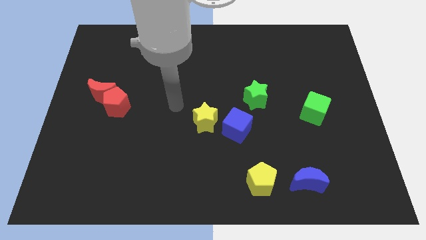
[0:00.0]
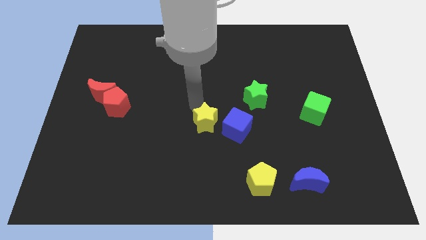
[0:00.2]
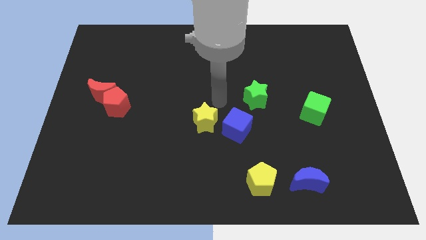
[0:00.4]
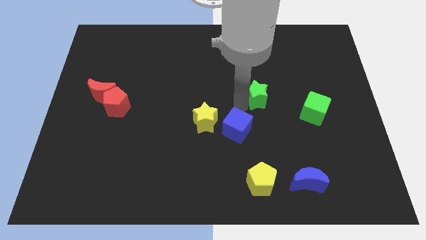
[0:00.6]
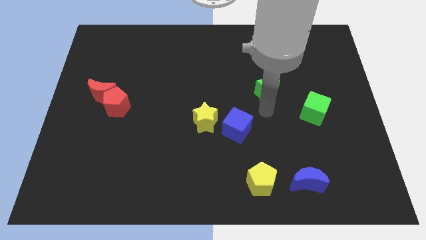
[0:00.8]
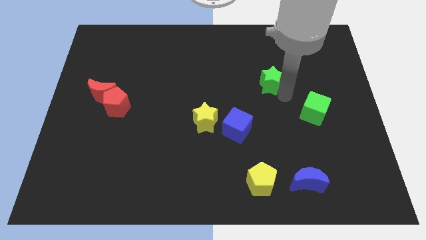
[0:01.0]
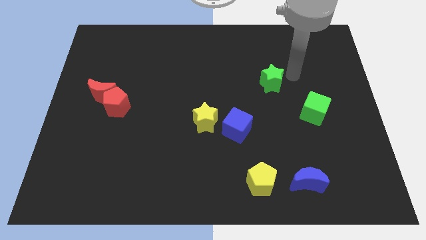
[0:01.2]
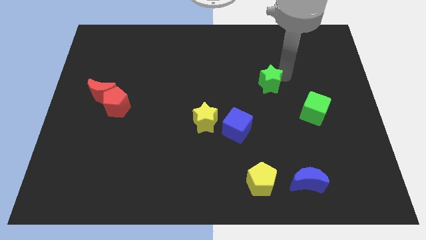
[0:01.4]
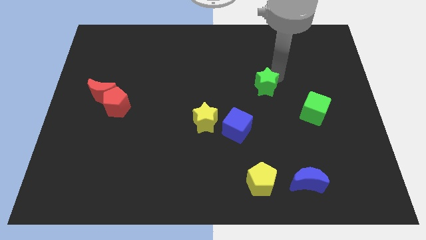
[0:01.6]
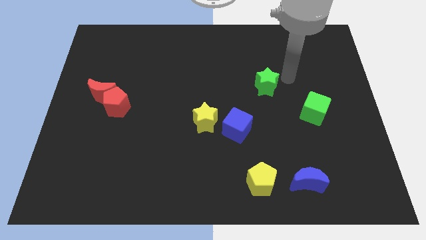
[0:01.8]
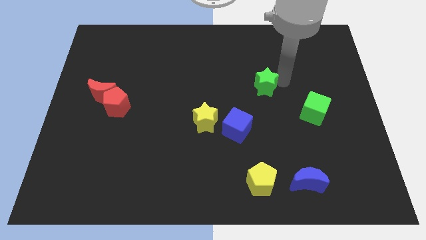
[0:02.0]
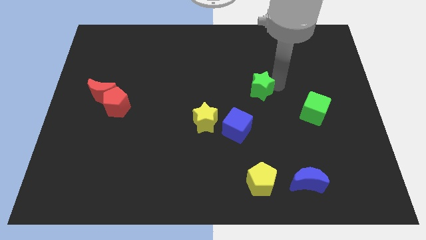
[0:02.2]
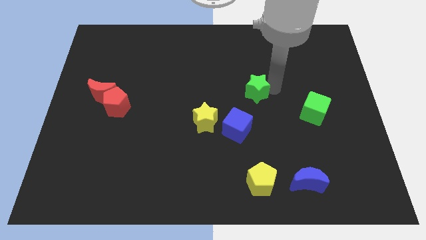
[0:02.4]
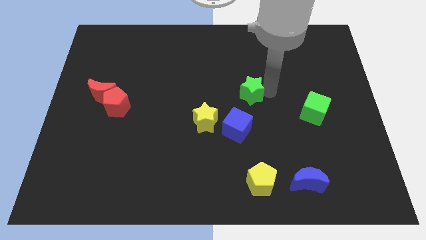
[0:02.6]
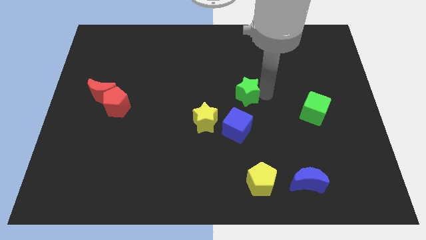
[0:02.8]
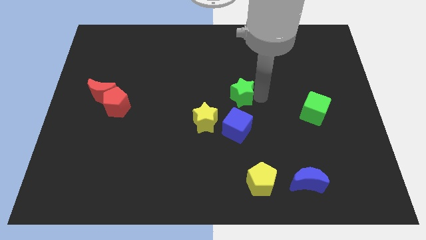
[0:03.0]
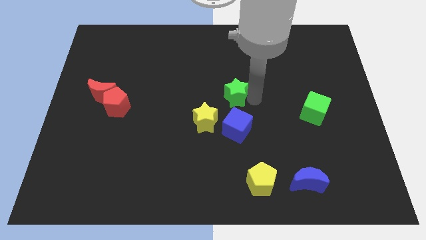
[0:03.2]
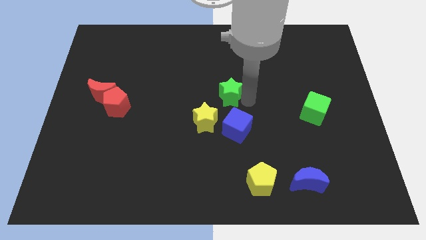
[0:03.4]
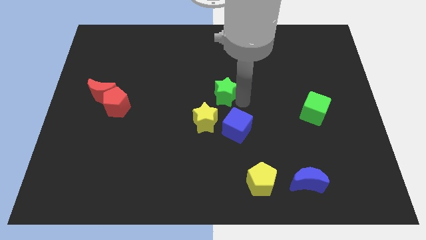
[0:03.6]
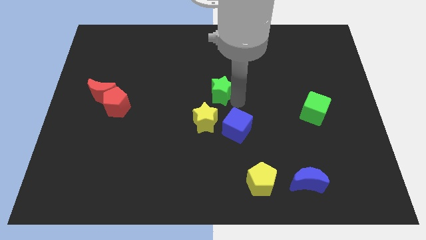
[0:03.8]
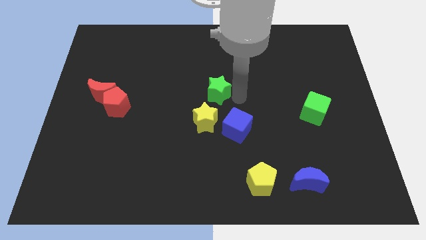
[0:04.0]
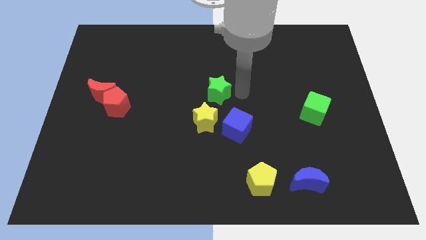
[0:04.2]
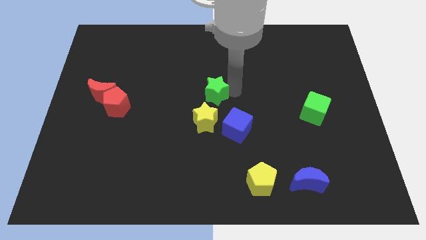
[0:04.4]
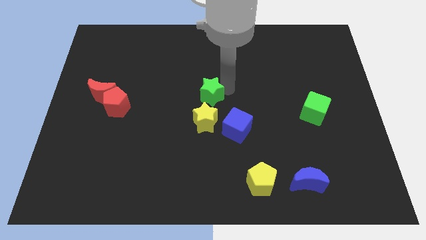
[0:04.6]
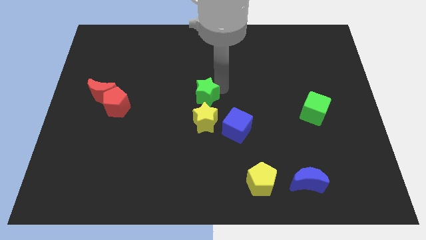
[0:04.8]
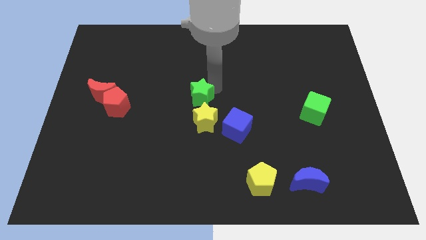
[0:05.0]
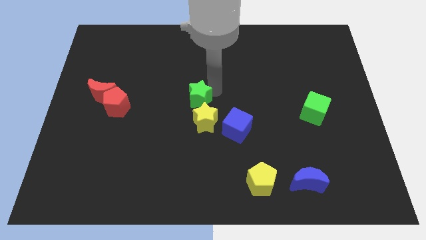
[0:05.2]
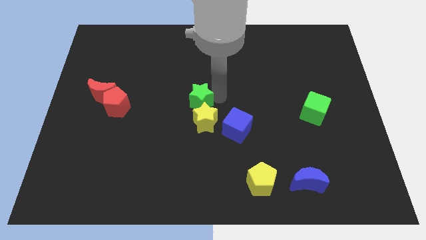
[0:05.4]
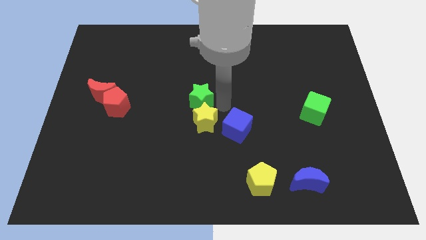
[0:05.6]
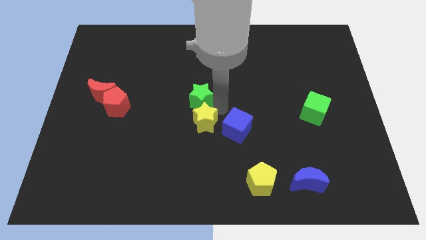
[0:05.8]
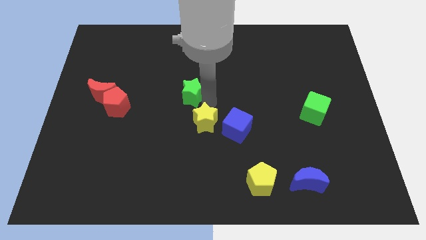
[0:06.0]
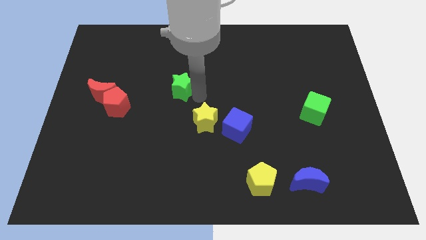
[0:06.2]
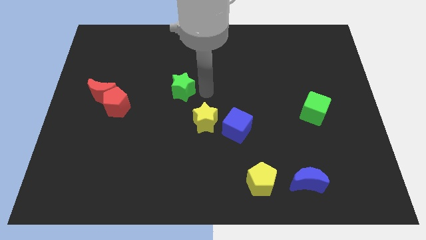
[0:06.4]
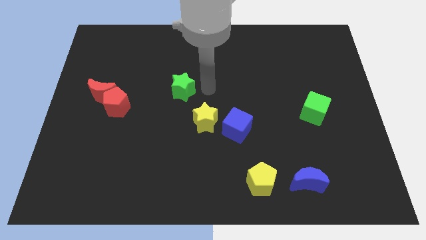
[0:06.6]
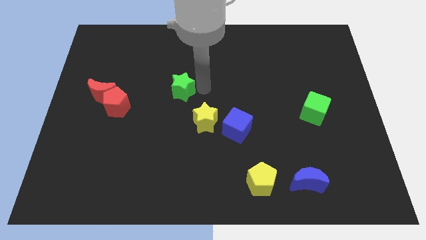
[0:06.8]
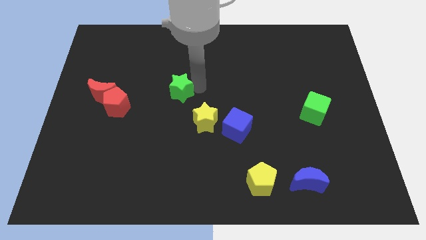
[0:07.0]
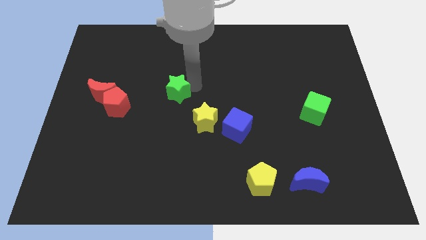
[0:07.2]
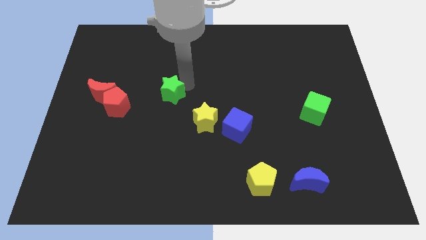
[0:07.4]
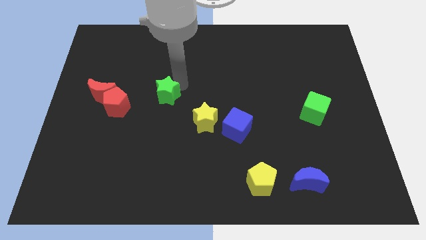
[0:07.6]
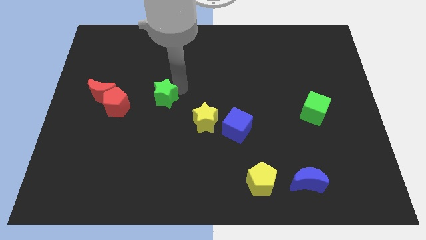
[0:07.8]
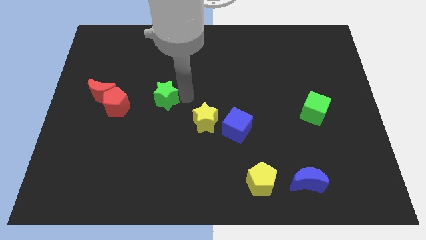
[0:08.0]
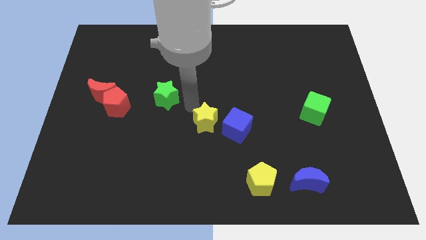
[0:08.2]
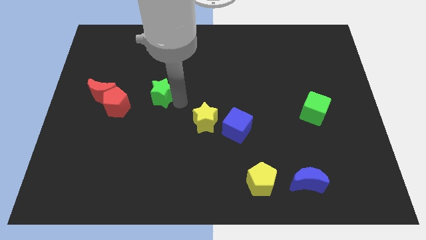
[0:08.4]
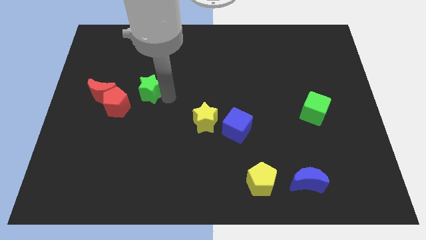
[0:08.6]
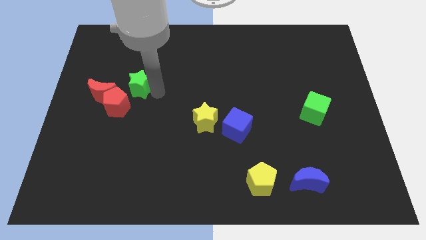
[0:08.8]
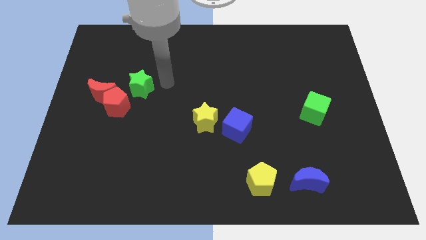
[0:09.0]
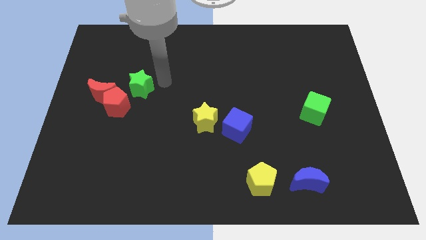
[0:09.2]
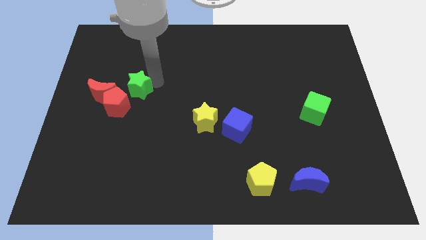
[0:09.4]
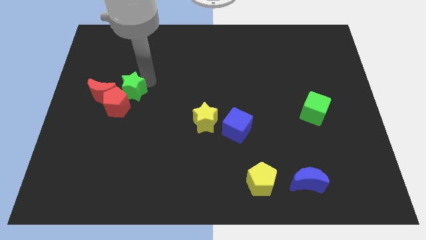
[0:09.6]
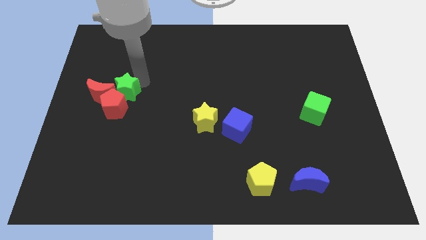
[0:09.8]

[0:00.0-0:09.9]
put the green star close to the red moon

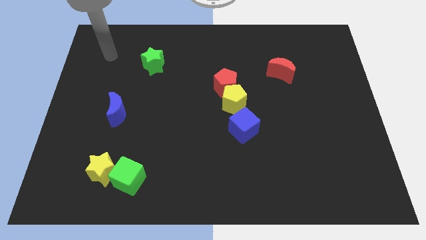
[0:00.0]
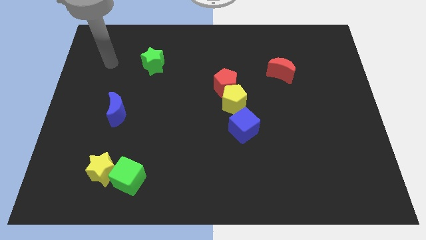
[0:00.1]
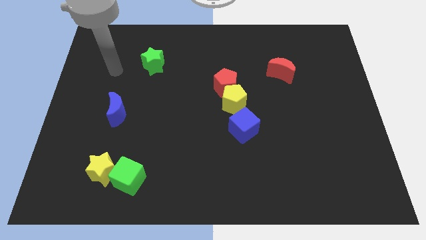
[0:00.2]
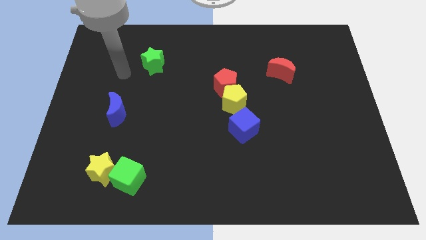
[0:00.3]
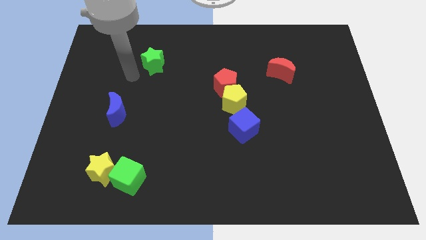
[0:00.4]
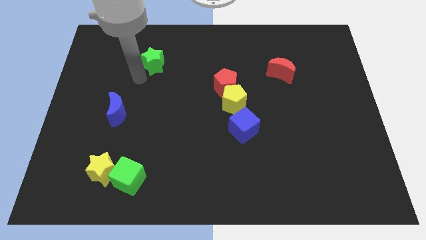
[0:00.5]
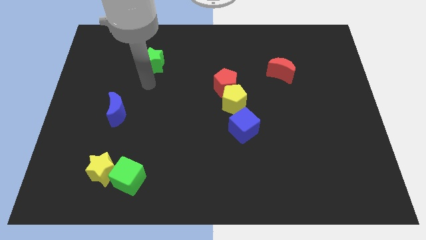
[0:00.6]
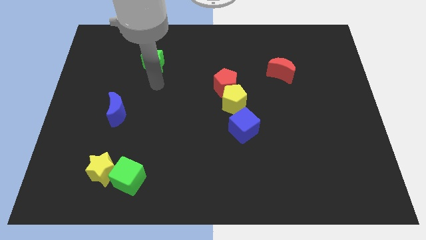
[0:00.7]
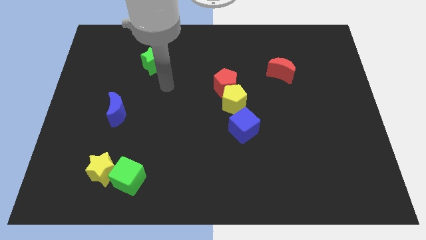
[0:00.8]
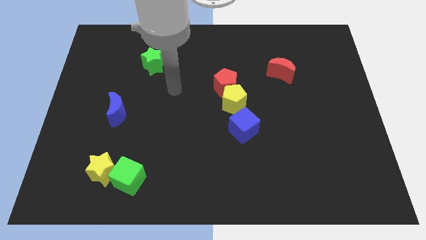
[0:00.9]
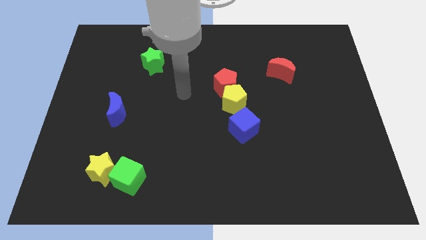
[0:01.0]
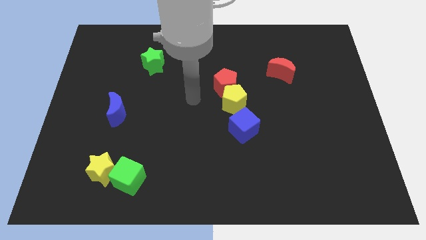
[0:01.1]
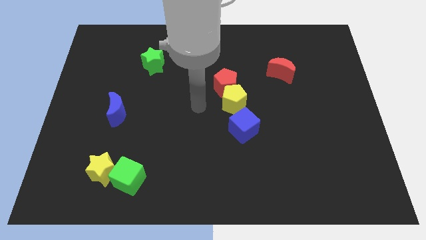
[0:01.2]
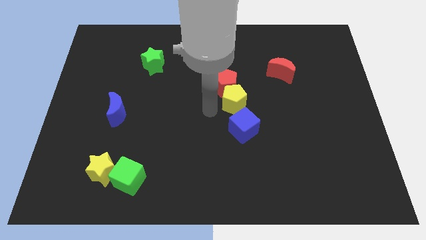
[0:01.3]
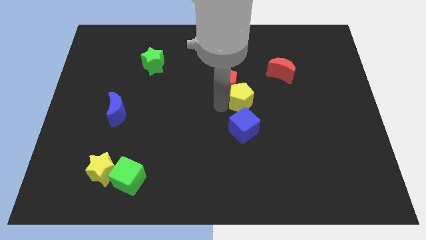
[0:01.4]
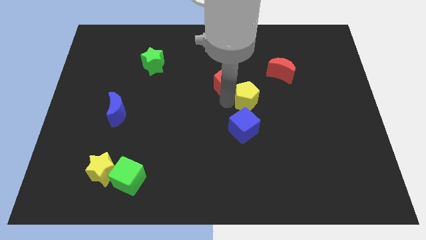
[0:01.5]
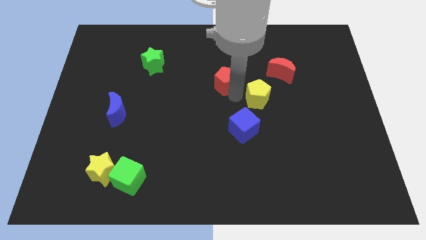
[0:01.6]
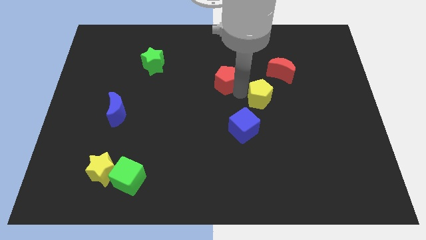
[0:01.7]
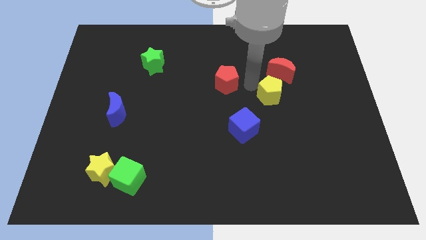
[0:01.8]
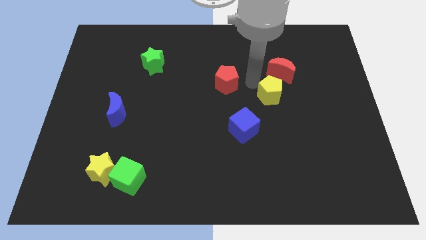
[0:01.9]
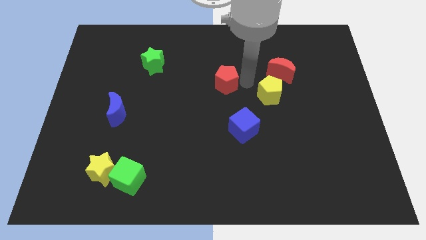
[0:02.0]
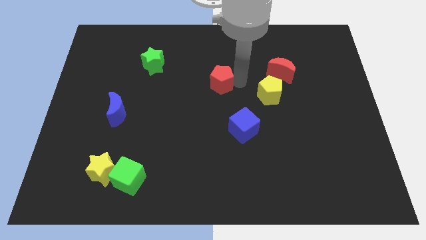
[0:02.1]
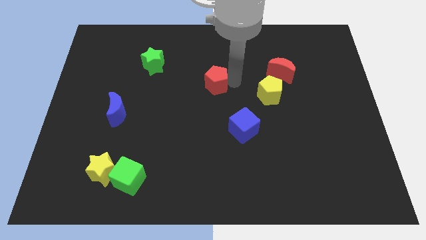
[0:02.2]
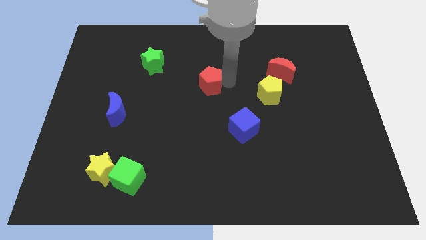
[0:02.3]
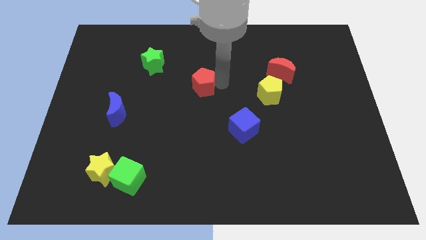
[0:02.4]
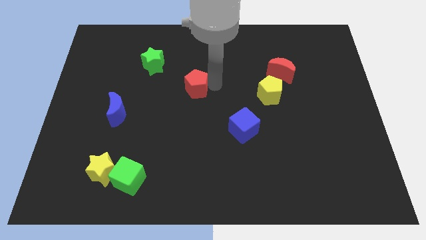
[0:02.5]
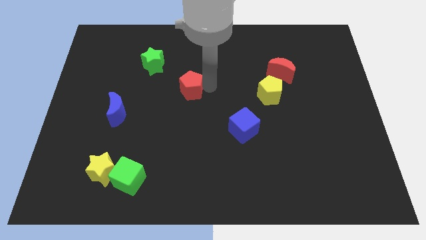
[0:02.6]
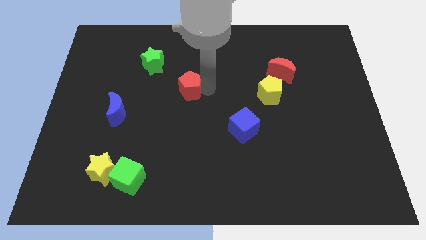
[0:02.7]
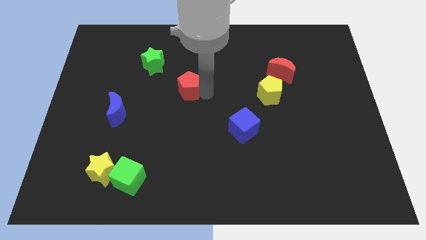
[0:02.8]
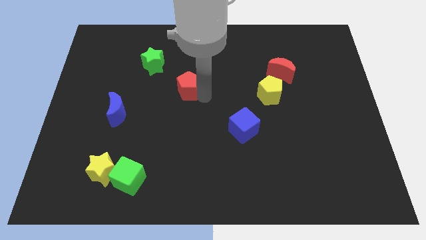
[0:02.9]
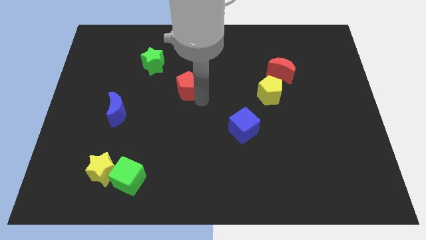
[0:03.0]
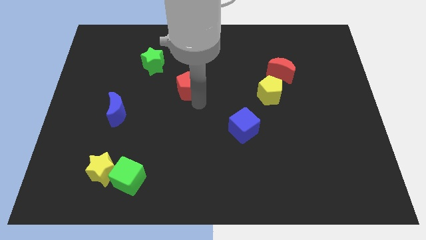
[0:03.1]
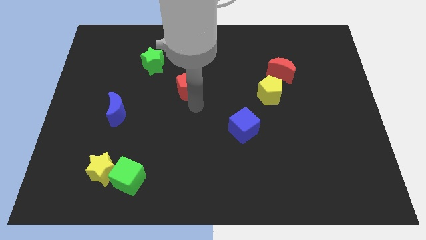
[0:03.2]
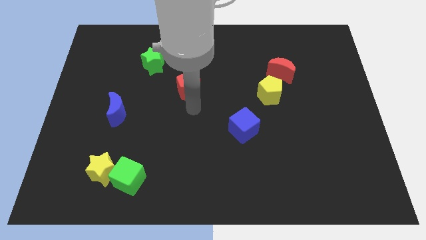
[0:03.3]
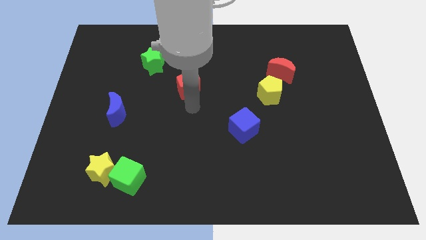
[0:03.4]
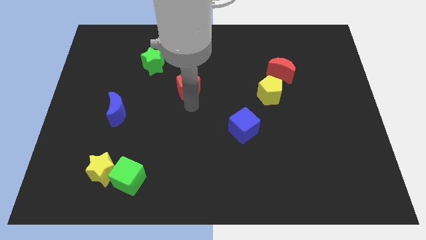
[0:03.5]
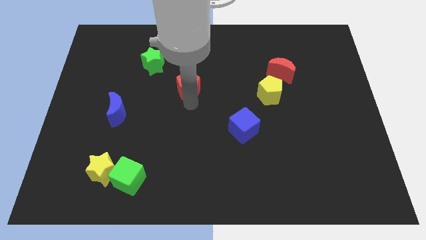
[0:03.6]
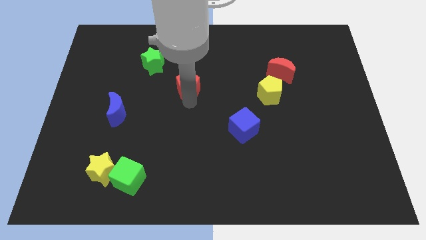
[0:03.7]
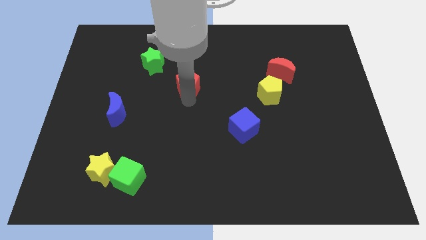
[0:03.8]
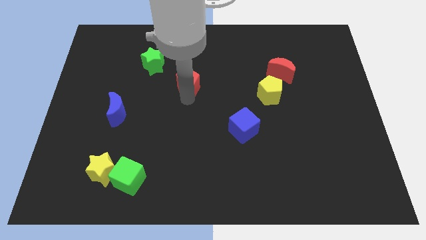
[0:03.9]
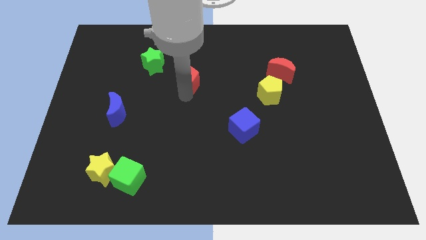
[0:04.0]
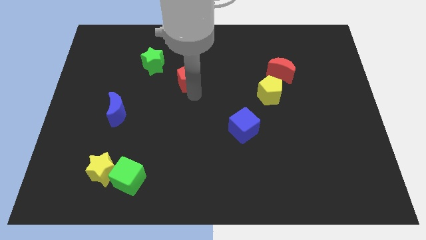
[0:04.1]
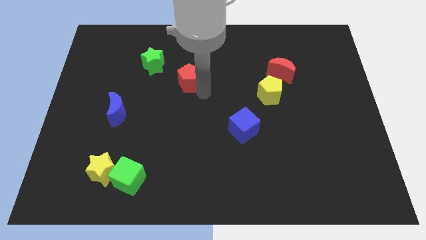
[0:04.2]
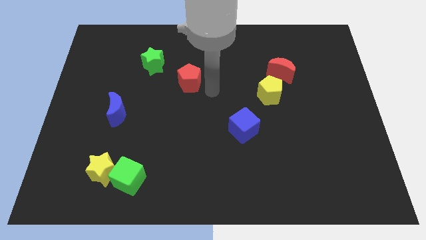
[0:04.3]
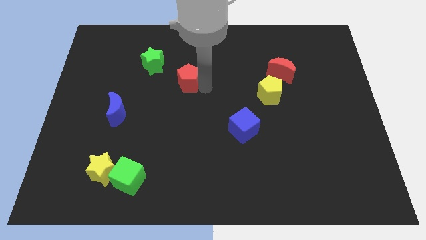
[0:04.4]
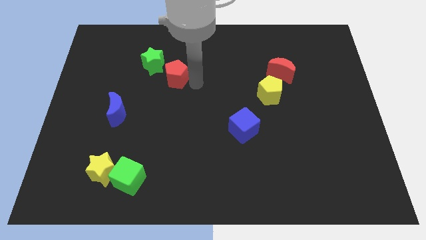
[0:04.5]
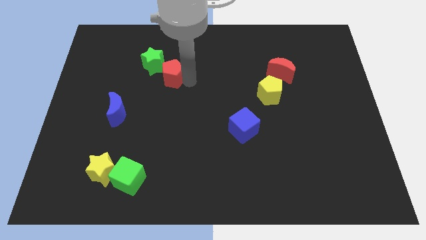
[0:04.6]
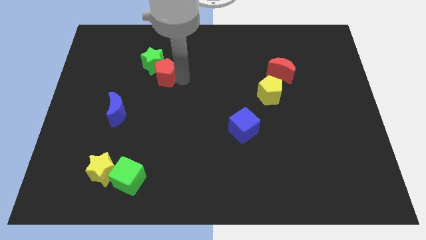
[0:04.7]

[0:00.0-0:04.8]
put the red pentagon to the green star
